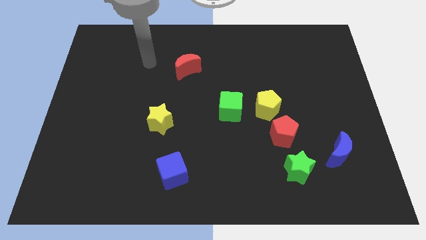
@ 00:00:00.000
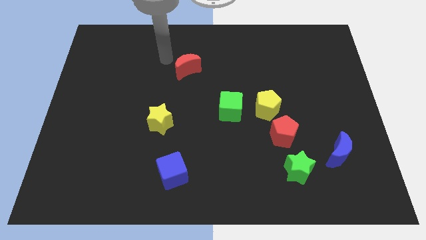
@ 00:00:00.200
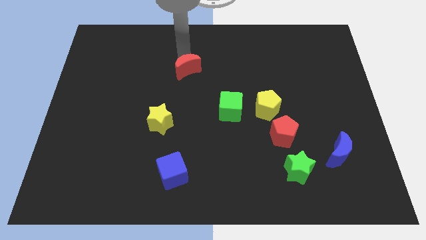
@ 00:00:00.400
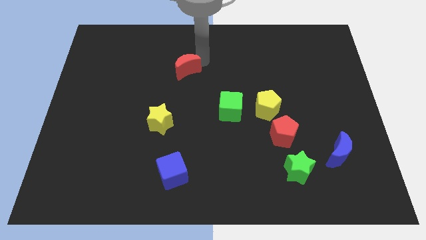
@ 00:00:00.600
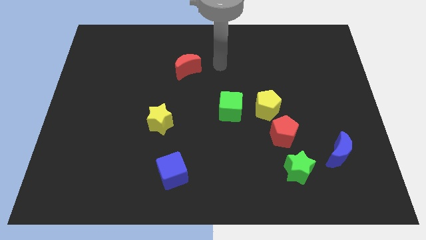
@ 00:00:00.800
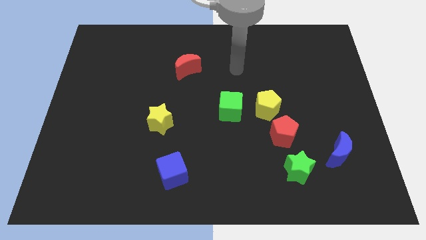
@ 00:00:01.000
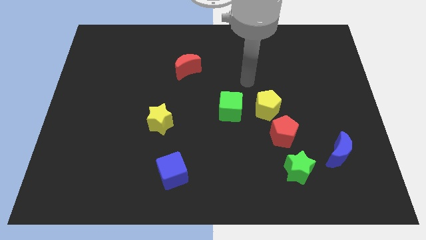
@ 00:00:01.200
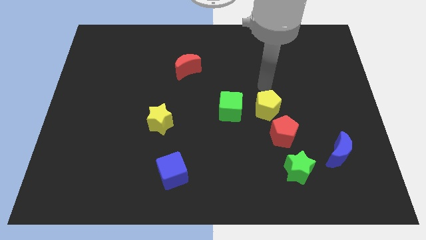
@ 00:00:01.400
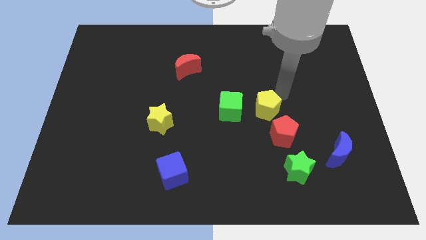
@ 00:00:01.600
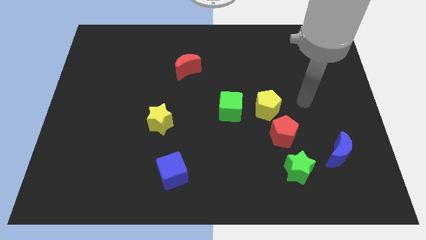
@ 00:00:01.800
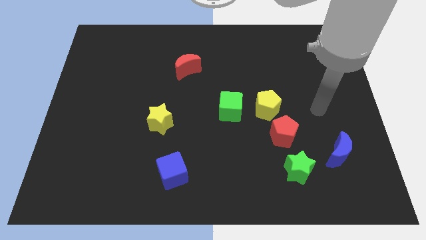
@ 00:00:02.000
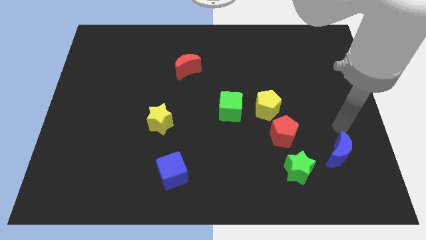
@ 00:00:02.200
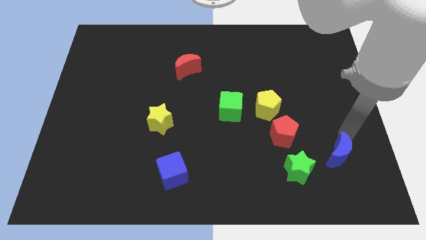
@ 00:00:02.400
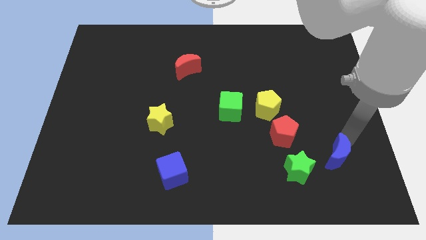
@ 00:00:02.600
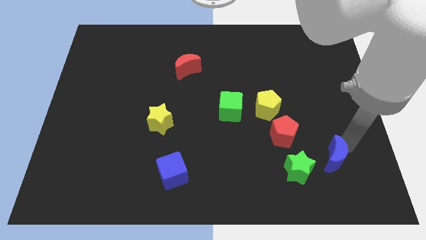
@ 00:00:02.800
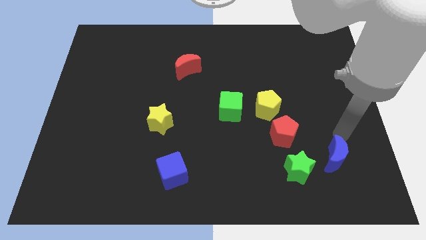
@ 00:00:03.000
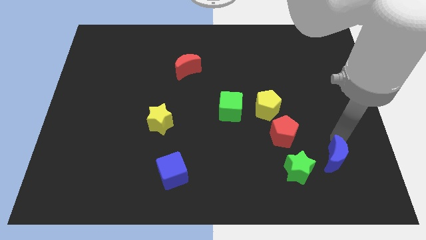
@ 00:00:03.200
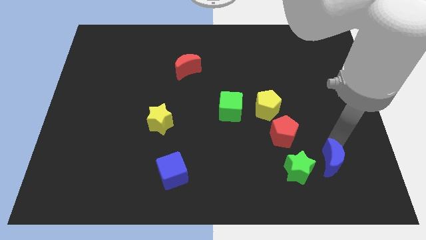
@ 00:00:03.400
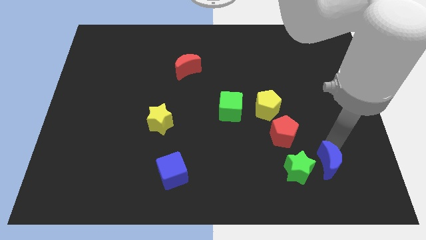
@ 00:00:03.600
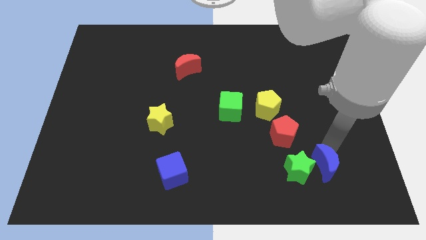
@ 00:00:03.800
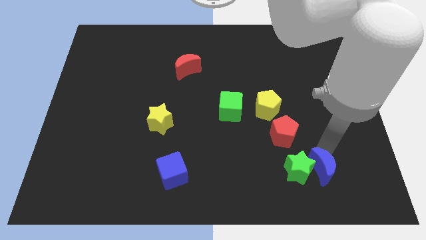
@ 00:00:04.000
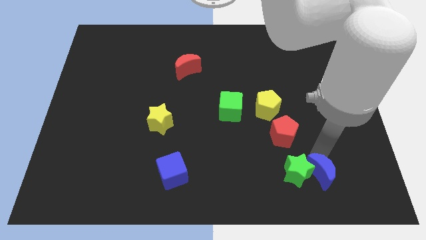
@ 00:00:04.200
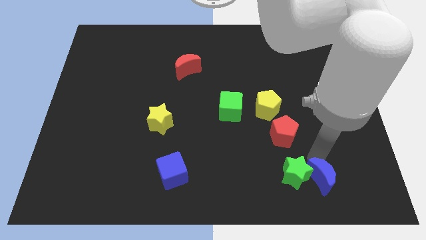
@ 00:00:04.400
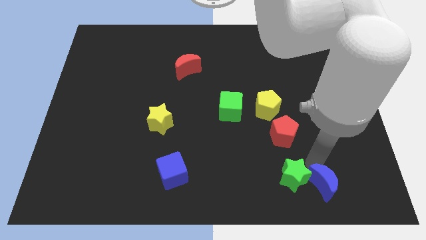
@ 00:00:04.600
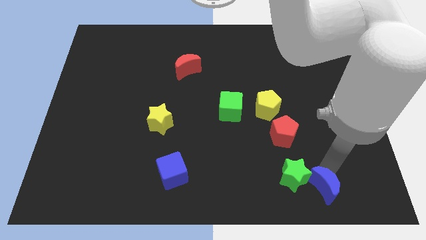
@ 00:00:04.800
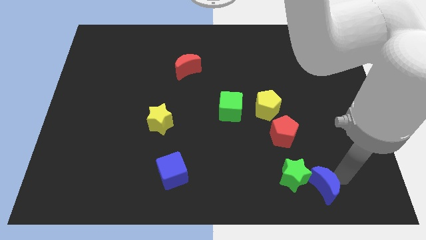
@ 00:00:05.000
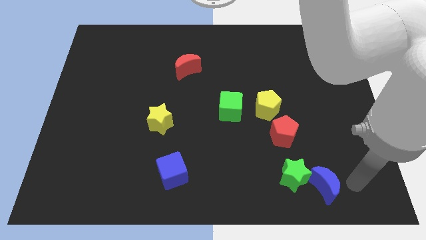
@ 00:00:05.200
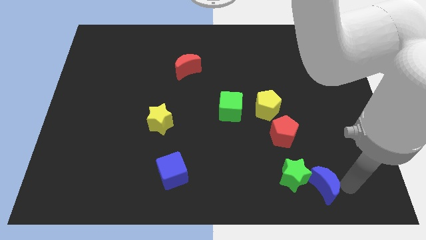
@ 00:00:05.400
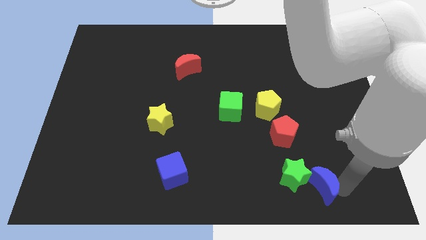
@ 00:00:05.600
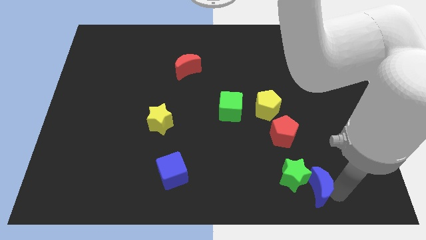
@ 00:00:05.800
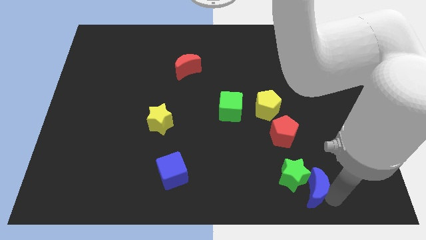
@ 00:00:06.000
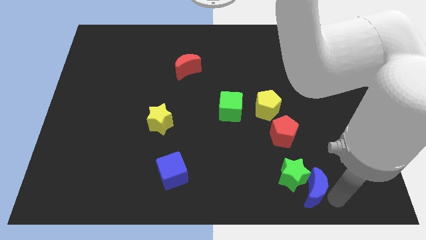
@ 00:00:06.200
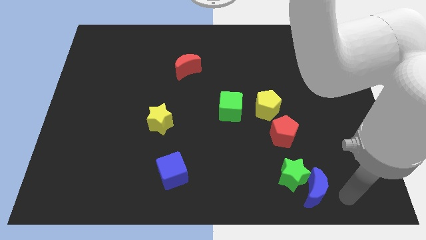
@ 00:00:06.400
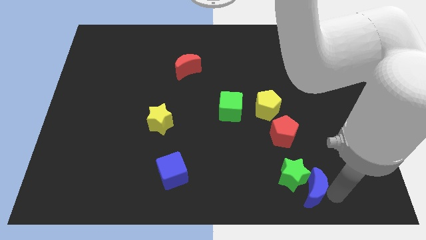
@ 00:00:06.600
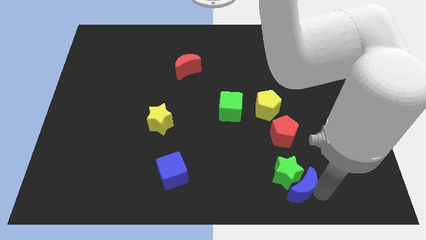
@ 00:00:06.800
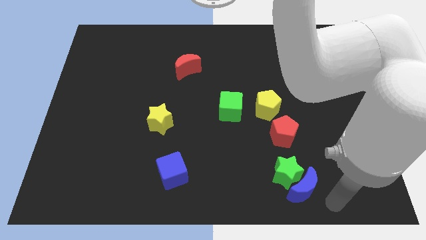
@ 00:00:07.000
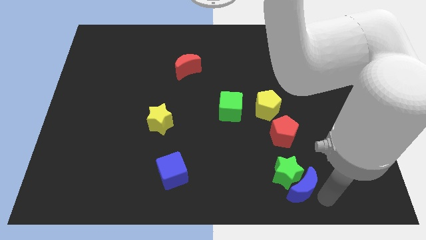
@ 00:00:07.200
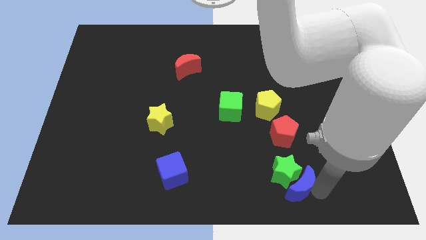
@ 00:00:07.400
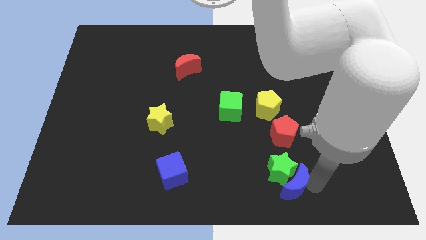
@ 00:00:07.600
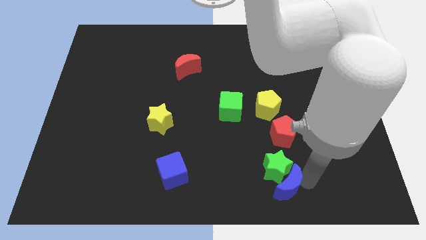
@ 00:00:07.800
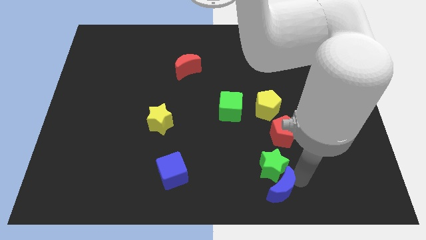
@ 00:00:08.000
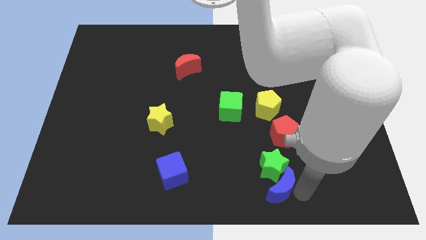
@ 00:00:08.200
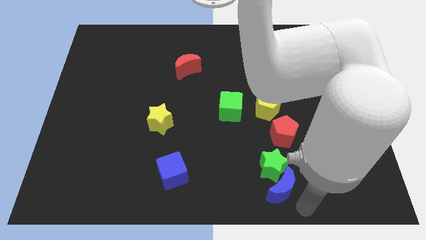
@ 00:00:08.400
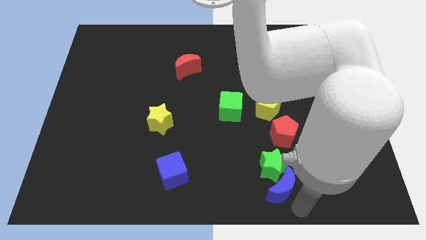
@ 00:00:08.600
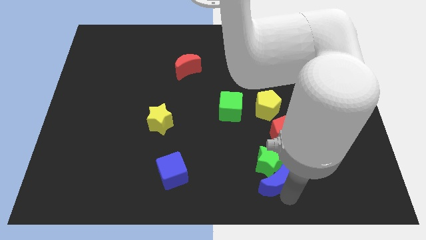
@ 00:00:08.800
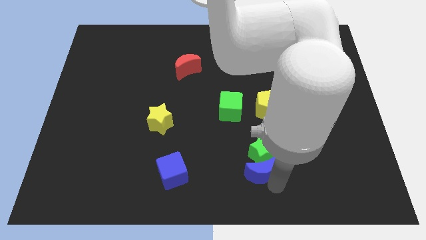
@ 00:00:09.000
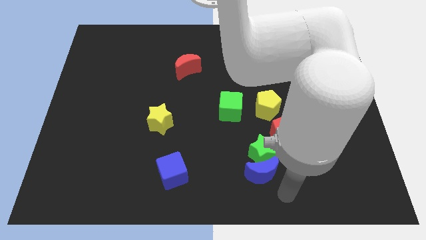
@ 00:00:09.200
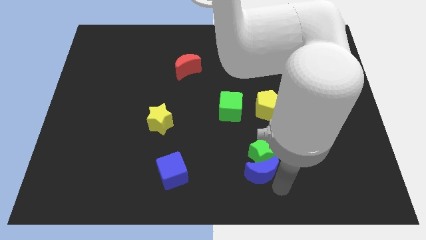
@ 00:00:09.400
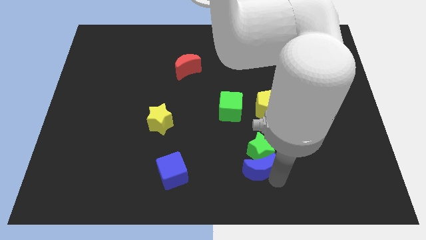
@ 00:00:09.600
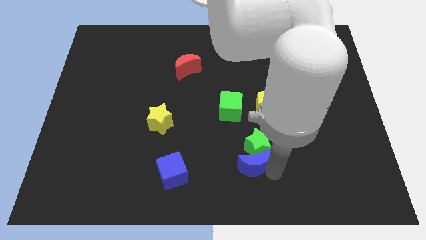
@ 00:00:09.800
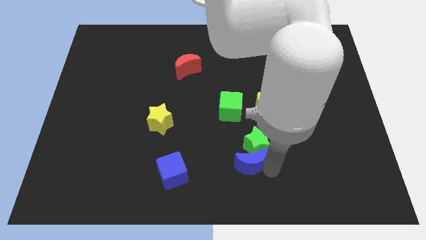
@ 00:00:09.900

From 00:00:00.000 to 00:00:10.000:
move the blue moon to the bottom of the green cube

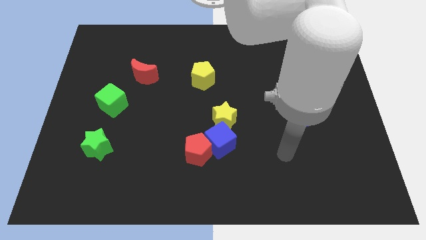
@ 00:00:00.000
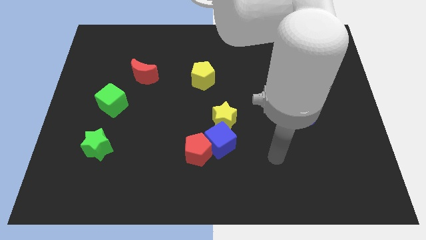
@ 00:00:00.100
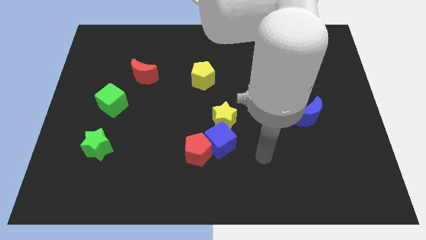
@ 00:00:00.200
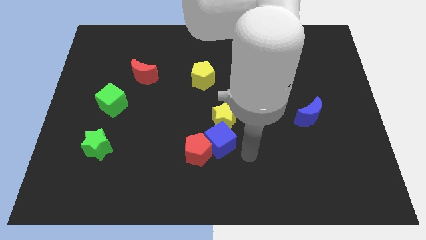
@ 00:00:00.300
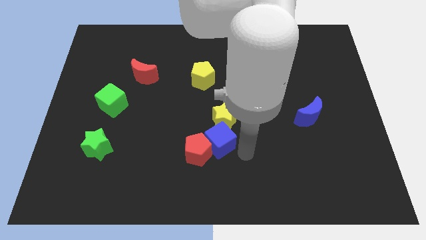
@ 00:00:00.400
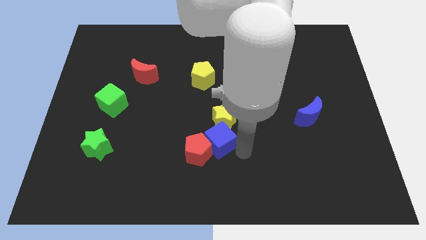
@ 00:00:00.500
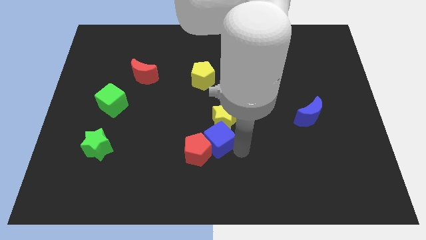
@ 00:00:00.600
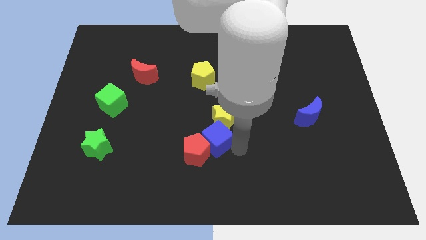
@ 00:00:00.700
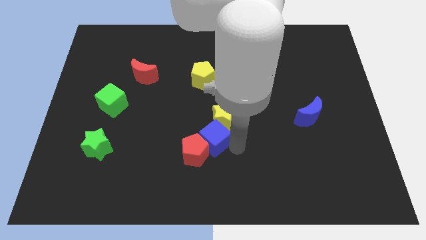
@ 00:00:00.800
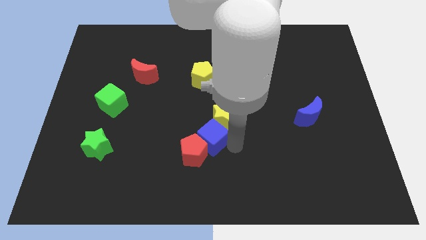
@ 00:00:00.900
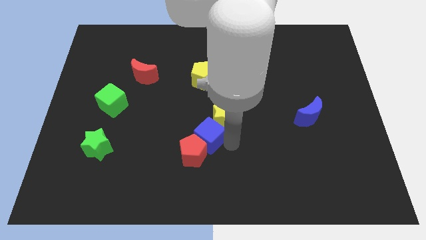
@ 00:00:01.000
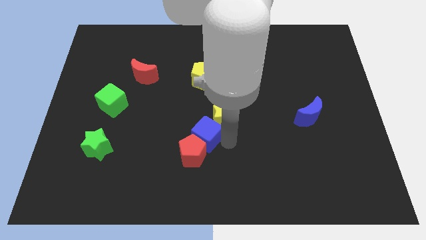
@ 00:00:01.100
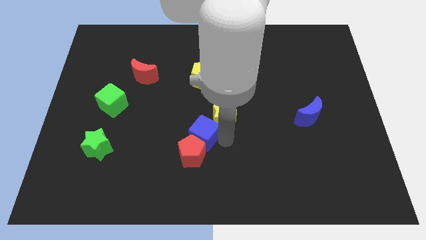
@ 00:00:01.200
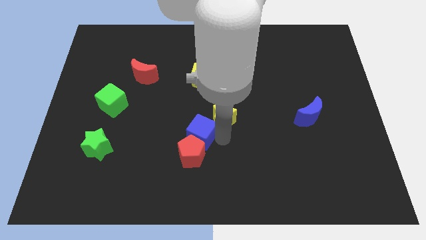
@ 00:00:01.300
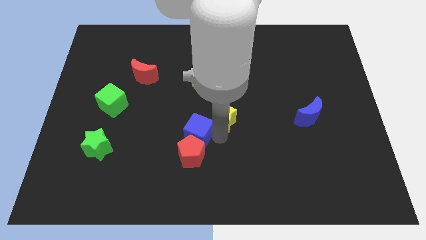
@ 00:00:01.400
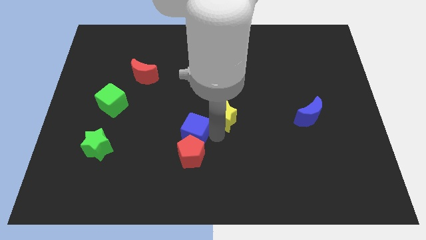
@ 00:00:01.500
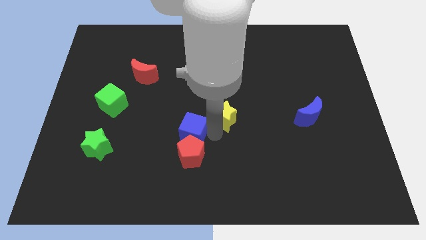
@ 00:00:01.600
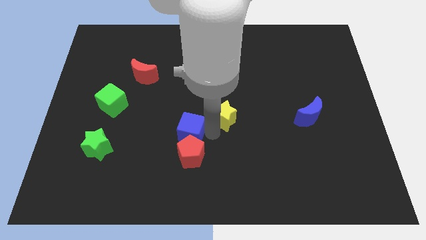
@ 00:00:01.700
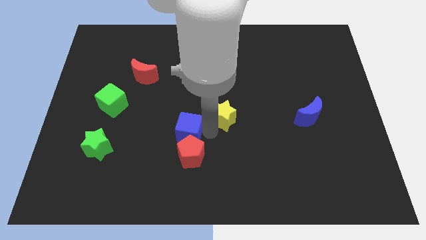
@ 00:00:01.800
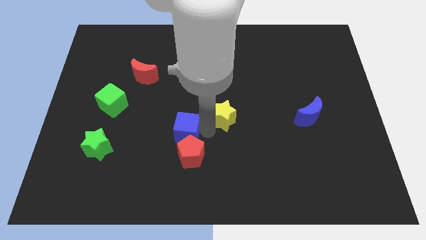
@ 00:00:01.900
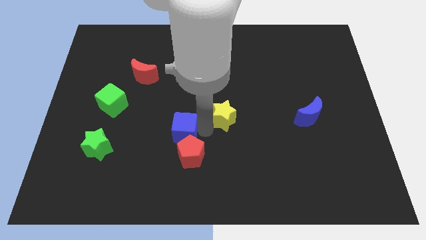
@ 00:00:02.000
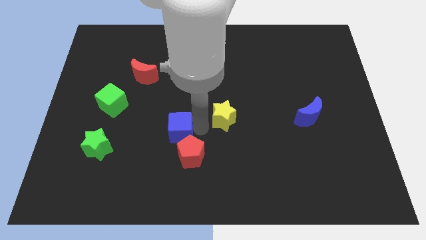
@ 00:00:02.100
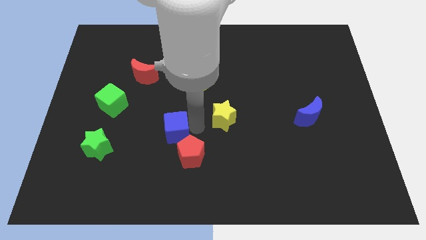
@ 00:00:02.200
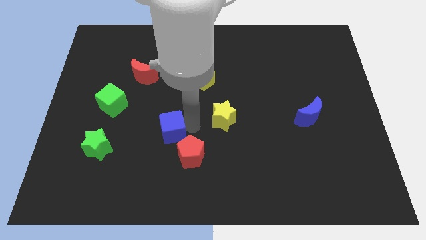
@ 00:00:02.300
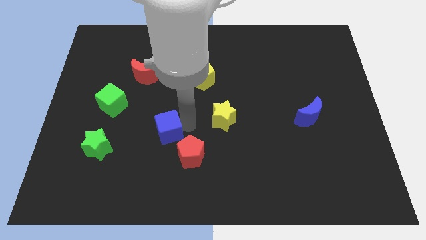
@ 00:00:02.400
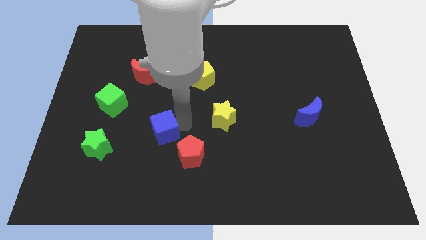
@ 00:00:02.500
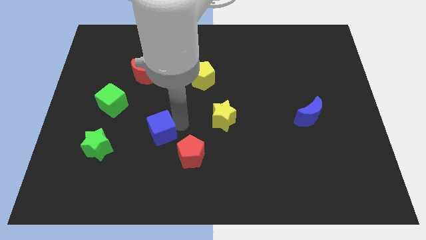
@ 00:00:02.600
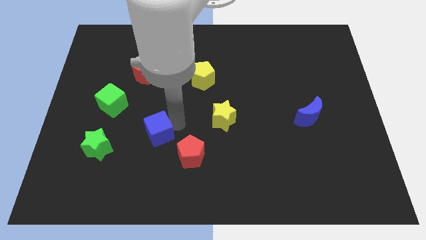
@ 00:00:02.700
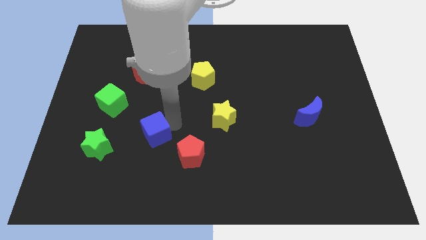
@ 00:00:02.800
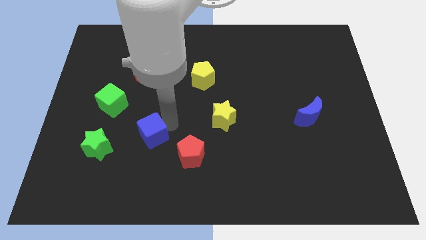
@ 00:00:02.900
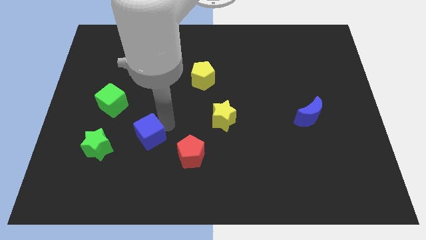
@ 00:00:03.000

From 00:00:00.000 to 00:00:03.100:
move the blue cube just left of the red pentagon
